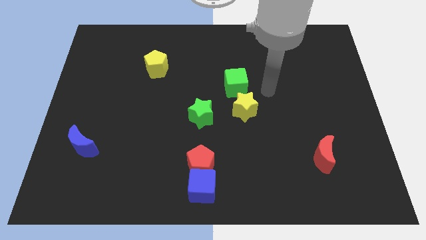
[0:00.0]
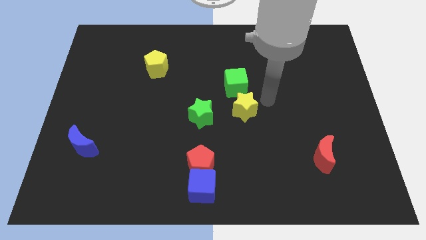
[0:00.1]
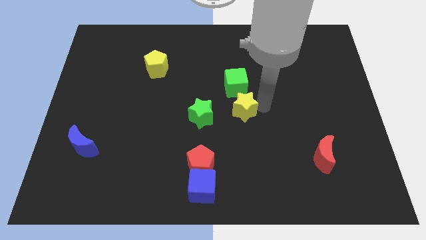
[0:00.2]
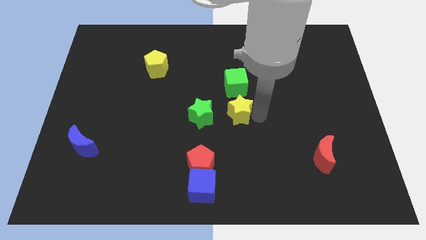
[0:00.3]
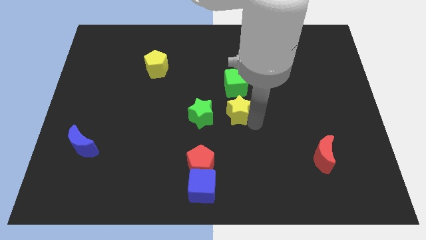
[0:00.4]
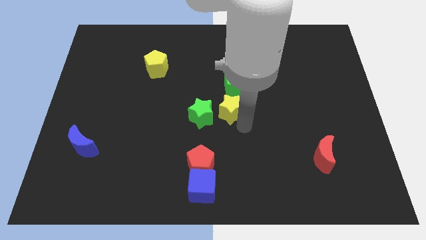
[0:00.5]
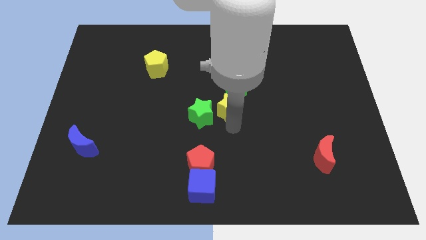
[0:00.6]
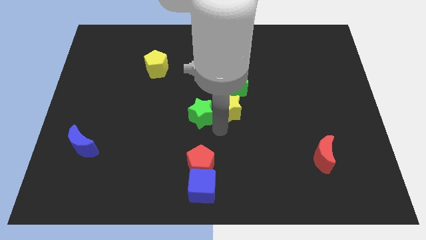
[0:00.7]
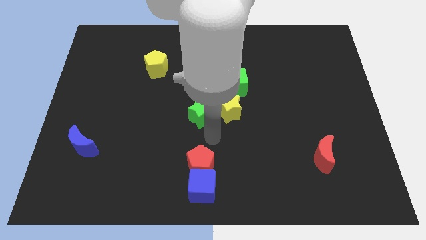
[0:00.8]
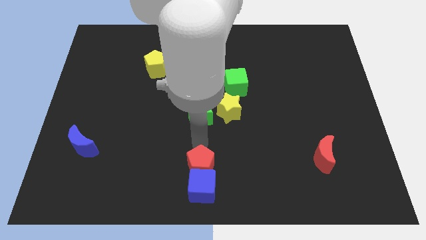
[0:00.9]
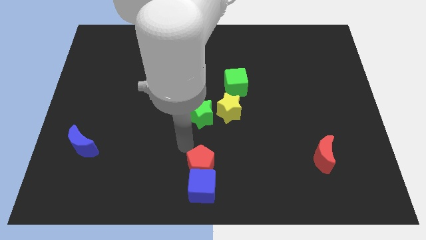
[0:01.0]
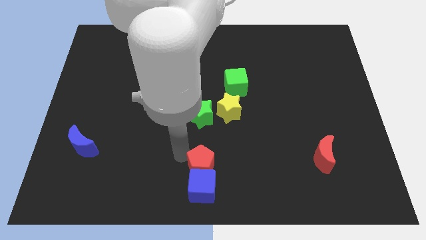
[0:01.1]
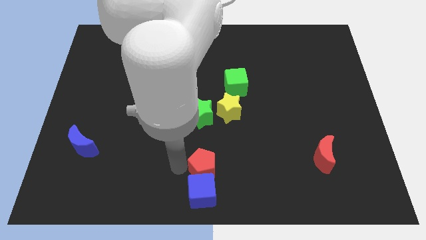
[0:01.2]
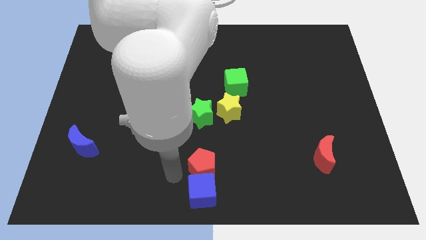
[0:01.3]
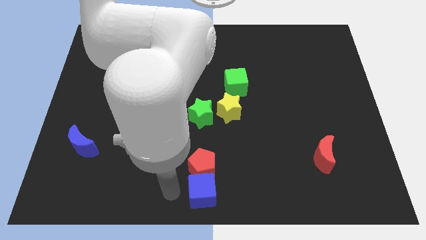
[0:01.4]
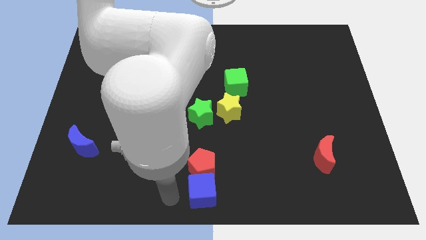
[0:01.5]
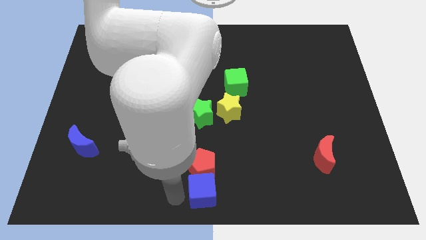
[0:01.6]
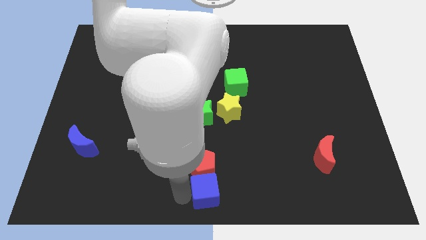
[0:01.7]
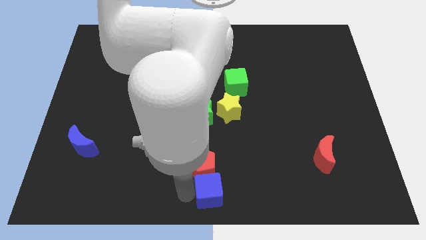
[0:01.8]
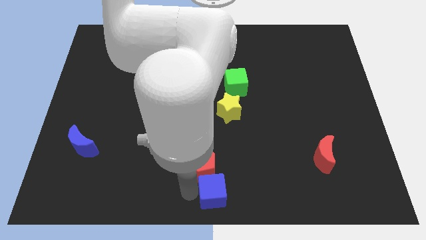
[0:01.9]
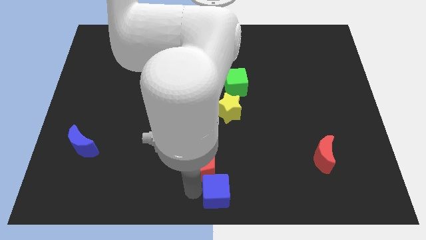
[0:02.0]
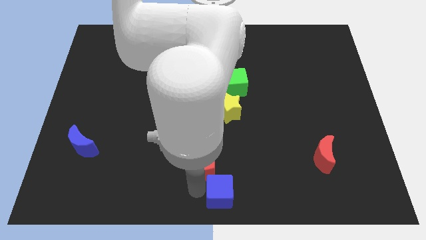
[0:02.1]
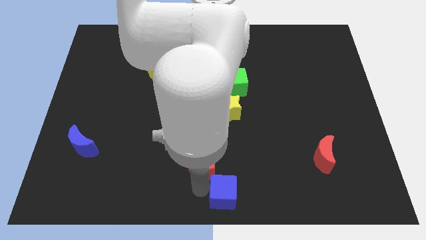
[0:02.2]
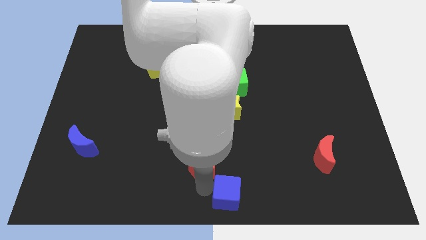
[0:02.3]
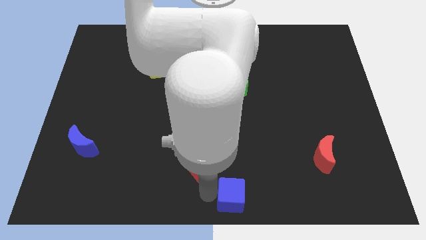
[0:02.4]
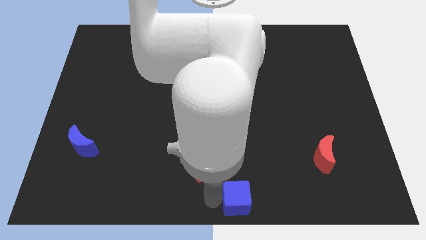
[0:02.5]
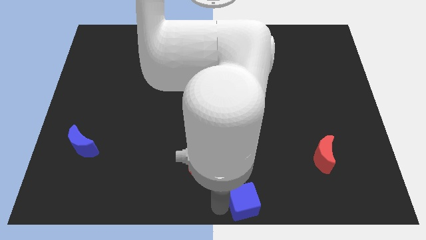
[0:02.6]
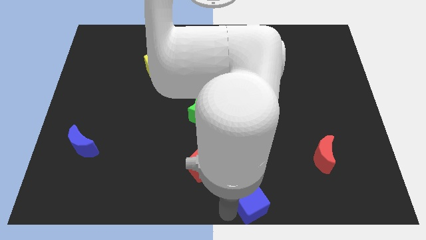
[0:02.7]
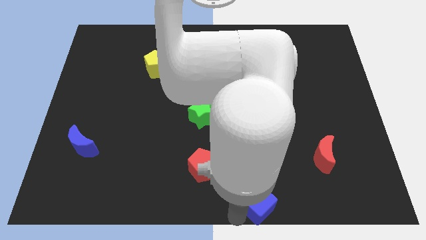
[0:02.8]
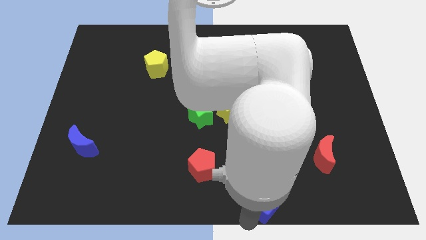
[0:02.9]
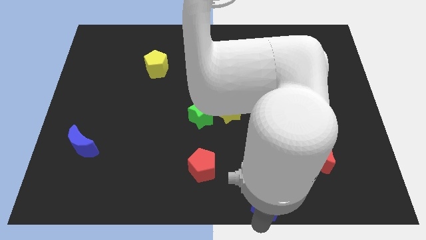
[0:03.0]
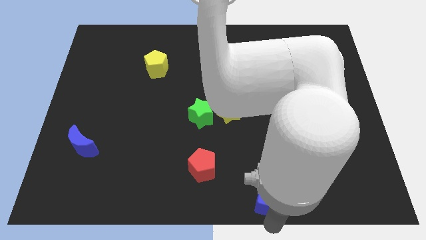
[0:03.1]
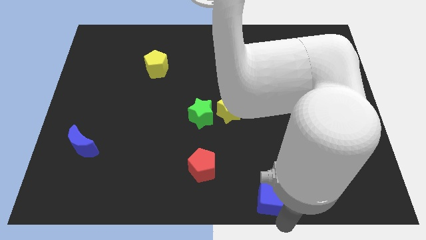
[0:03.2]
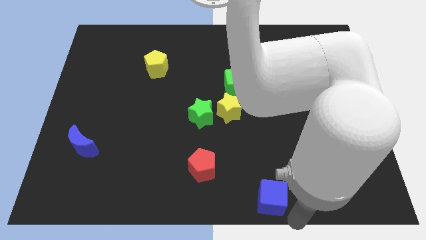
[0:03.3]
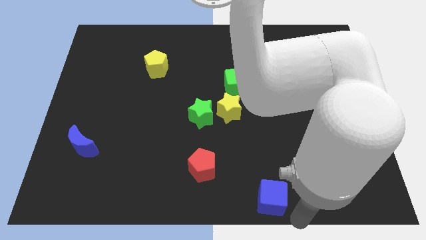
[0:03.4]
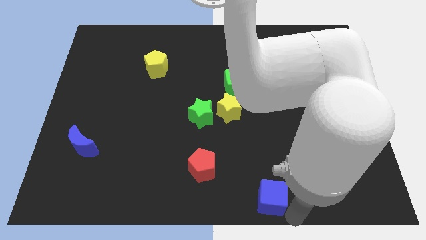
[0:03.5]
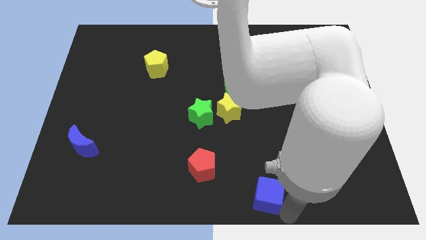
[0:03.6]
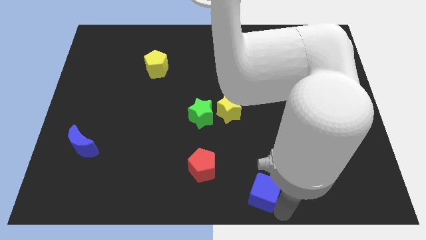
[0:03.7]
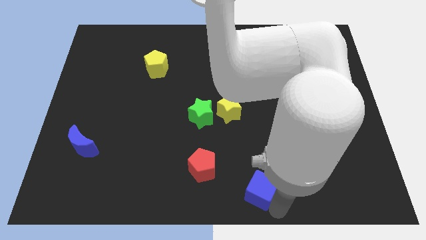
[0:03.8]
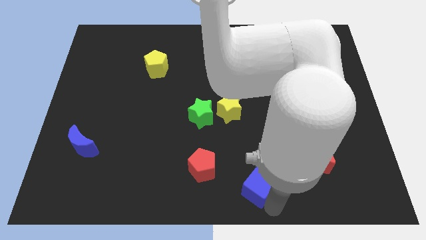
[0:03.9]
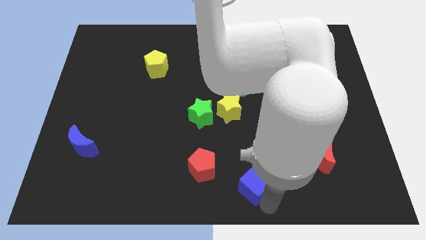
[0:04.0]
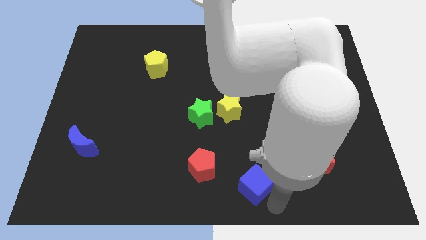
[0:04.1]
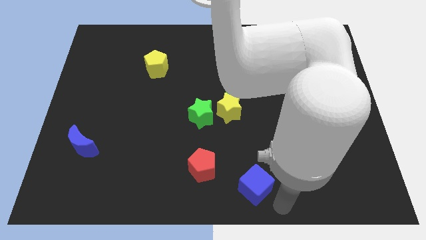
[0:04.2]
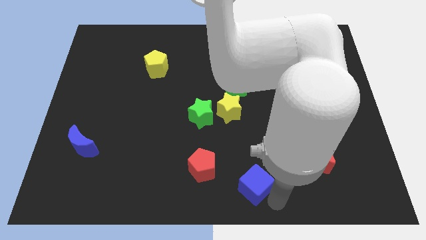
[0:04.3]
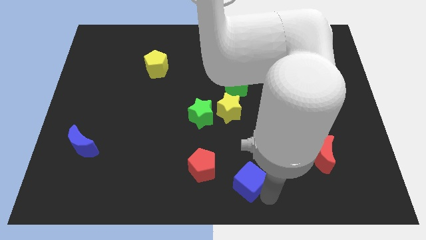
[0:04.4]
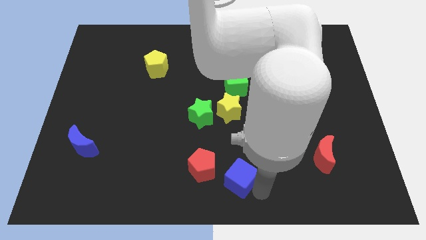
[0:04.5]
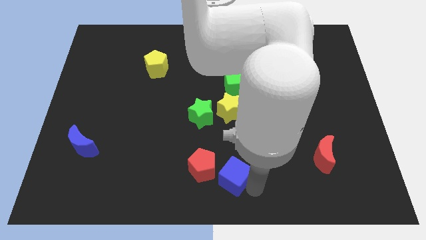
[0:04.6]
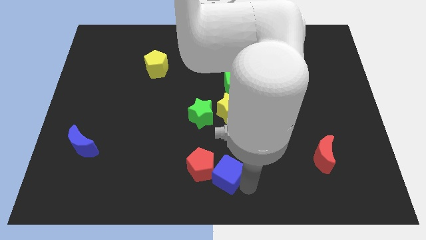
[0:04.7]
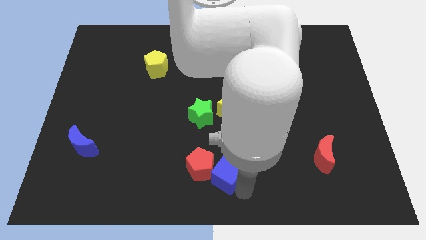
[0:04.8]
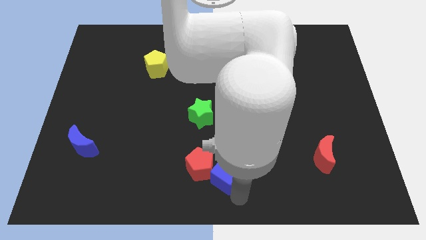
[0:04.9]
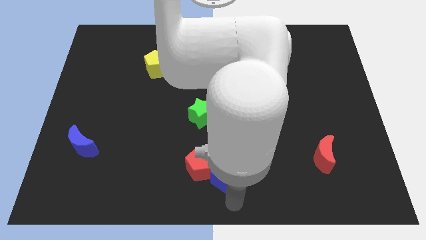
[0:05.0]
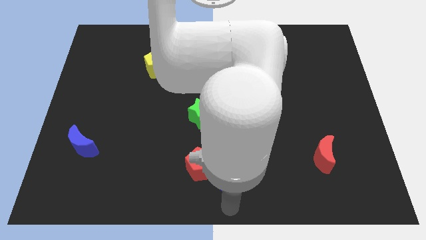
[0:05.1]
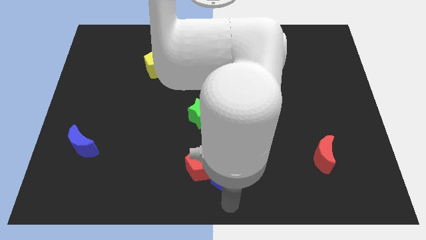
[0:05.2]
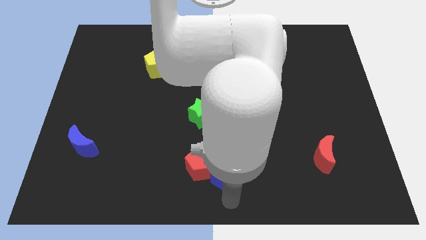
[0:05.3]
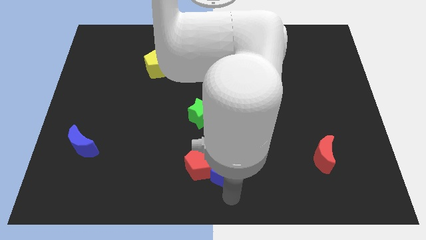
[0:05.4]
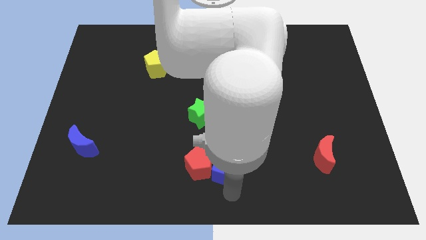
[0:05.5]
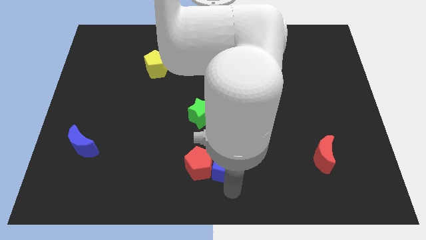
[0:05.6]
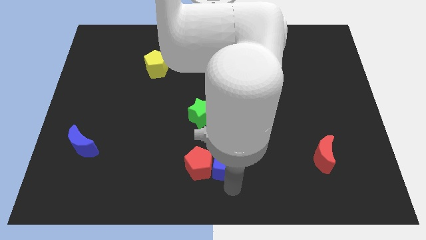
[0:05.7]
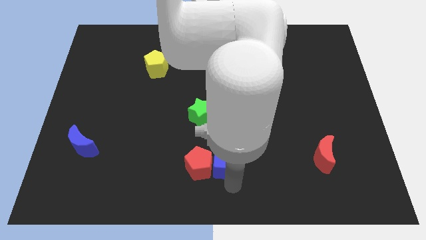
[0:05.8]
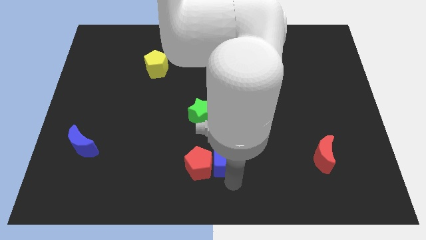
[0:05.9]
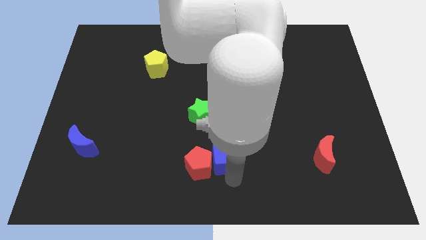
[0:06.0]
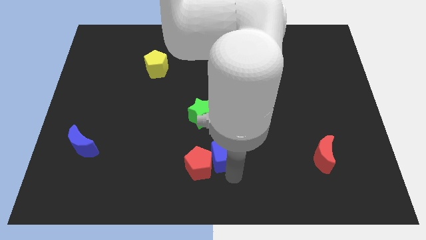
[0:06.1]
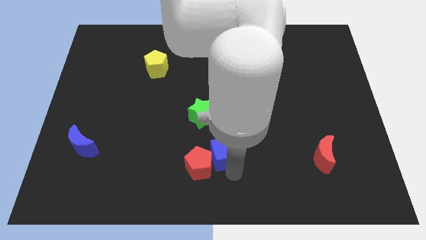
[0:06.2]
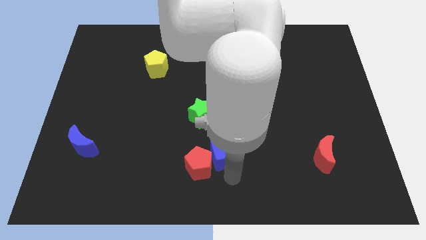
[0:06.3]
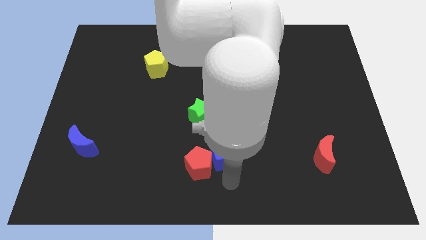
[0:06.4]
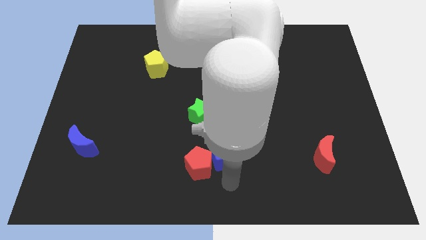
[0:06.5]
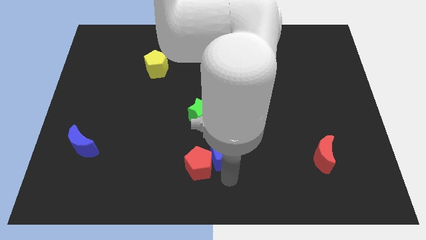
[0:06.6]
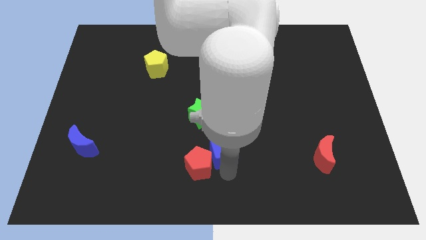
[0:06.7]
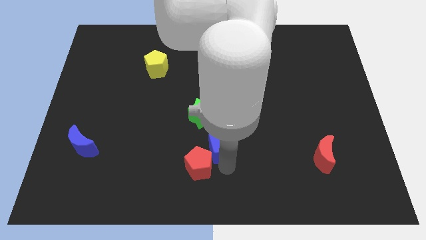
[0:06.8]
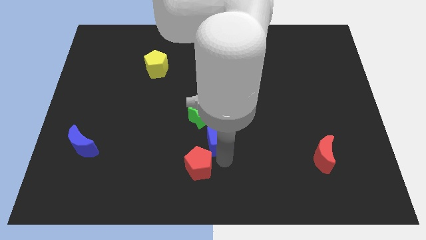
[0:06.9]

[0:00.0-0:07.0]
put the blue cube to the center
